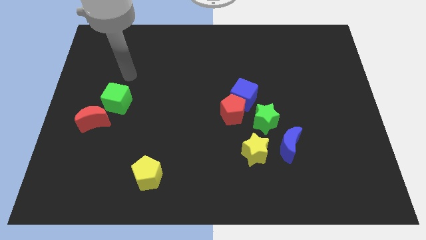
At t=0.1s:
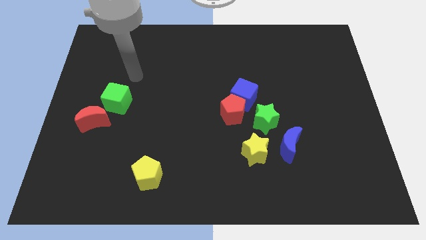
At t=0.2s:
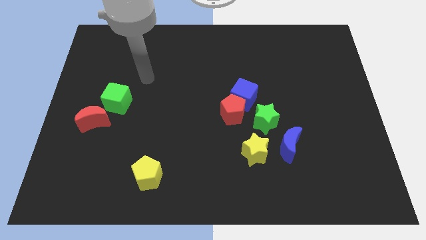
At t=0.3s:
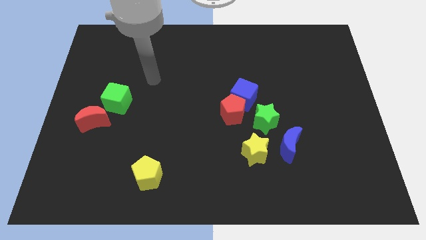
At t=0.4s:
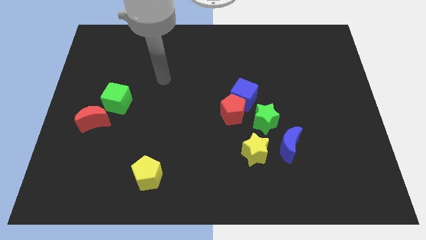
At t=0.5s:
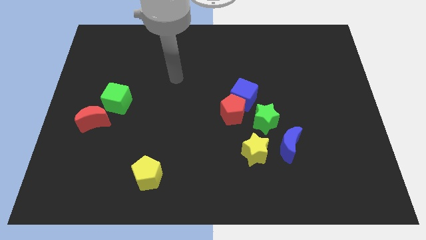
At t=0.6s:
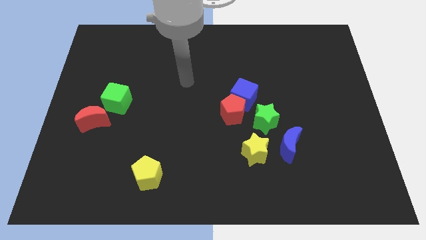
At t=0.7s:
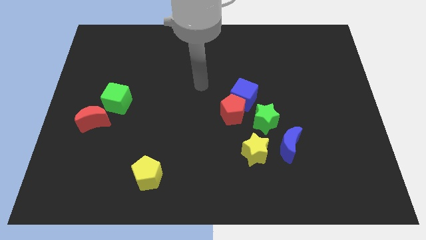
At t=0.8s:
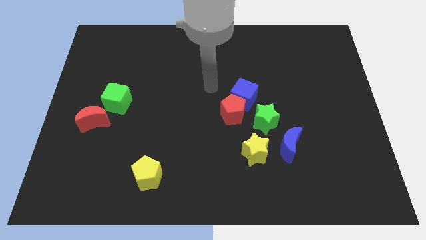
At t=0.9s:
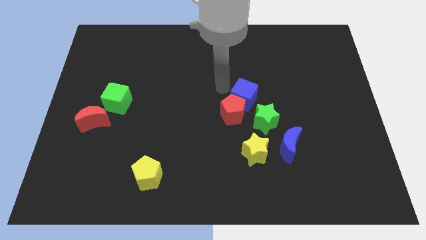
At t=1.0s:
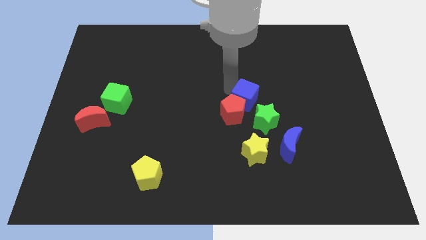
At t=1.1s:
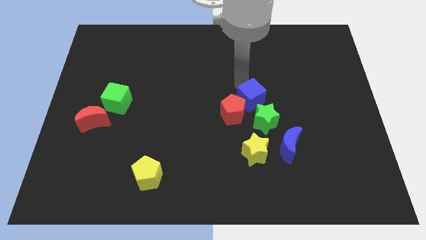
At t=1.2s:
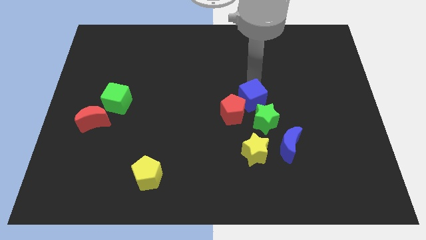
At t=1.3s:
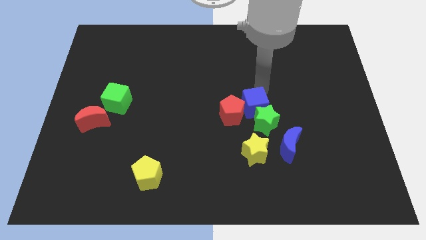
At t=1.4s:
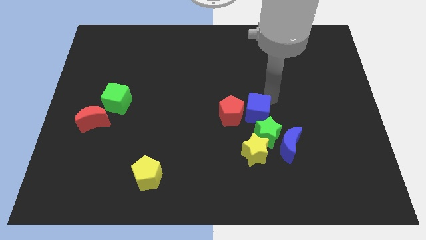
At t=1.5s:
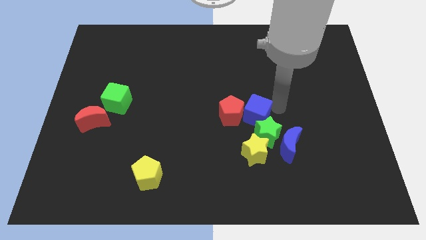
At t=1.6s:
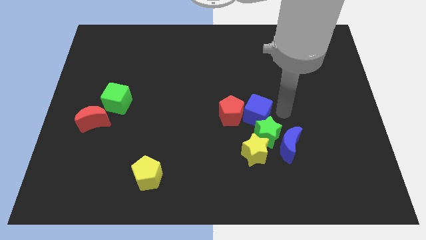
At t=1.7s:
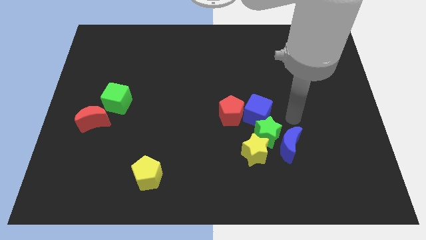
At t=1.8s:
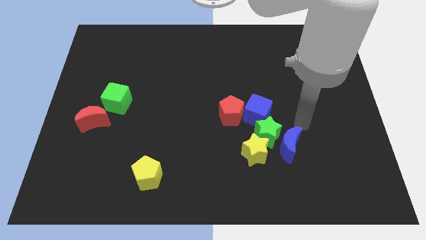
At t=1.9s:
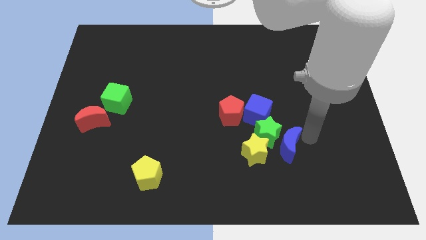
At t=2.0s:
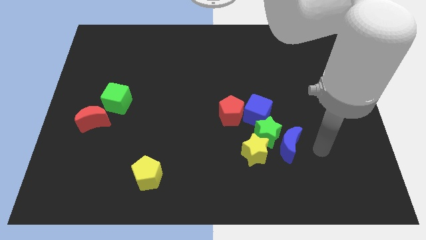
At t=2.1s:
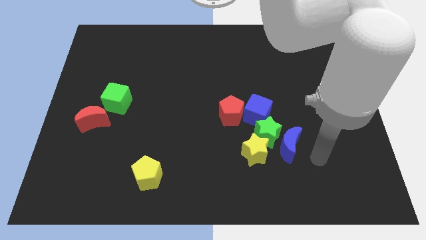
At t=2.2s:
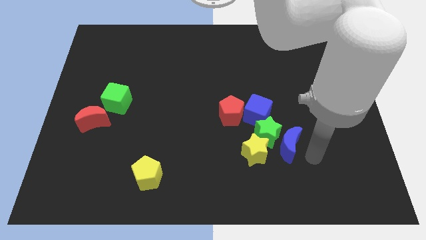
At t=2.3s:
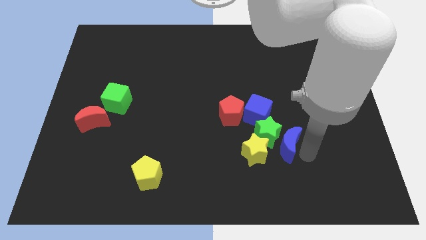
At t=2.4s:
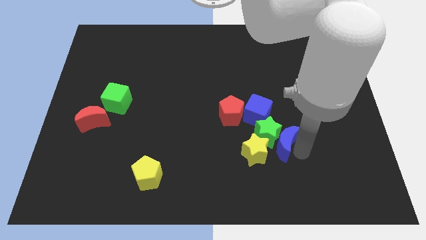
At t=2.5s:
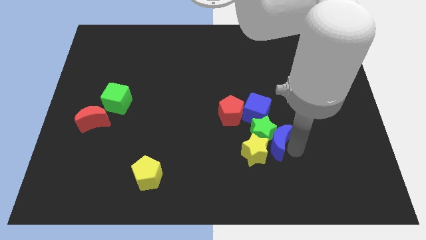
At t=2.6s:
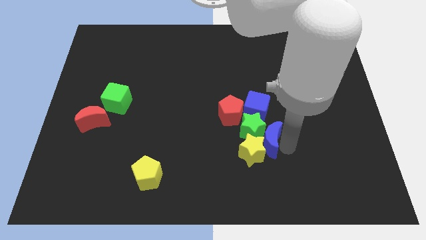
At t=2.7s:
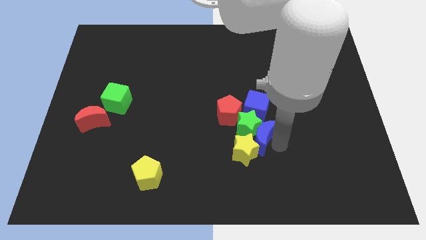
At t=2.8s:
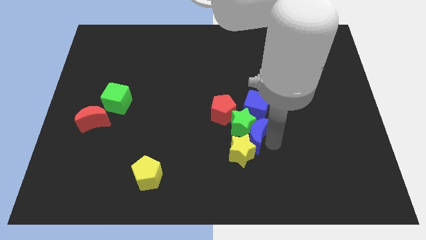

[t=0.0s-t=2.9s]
slightly move the blue moon to the left

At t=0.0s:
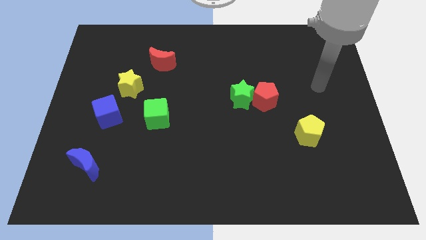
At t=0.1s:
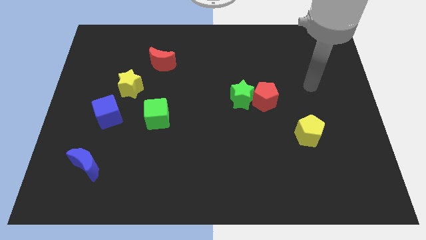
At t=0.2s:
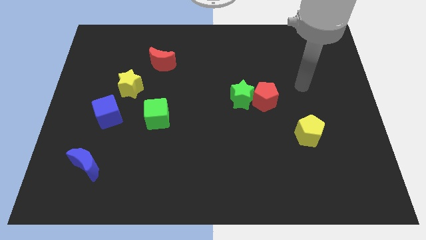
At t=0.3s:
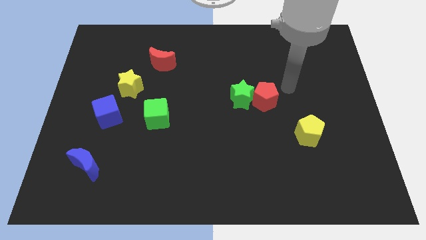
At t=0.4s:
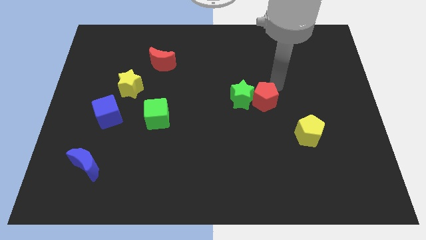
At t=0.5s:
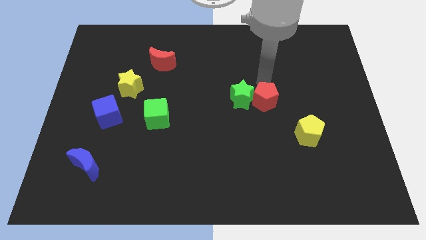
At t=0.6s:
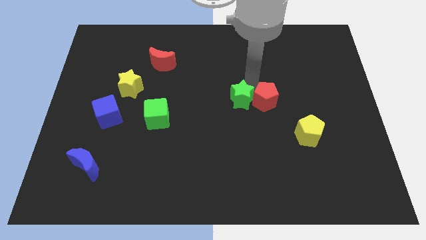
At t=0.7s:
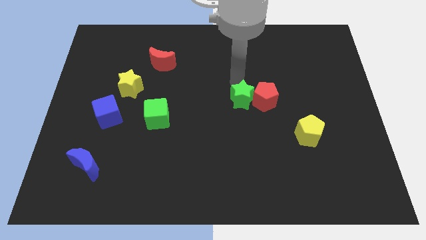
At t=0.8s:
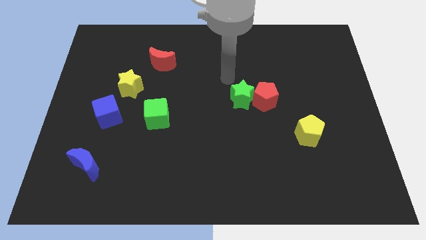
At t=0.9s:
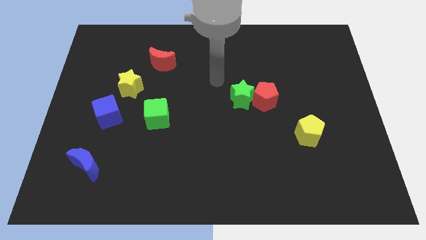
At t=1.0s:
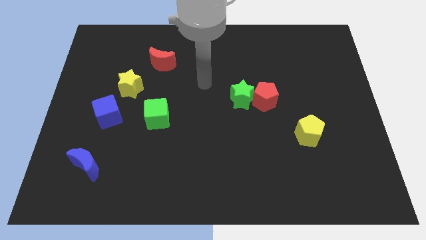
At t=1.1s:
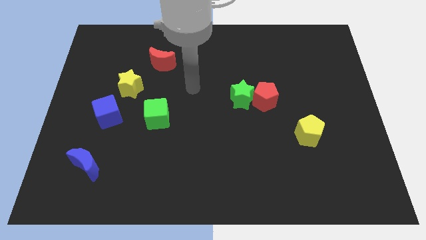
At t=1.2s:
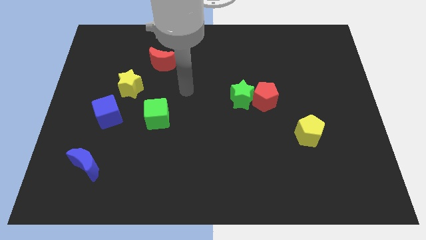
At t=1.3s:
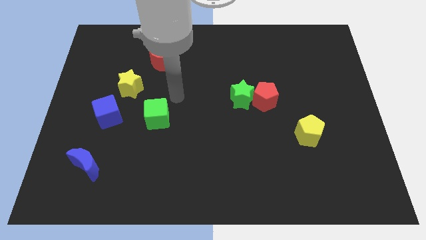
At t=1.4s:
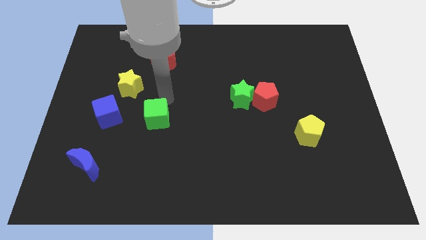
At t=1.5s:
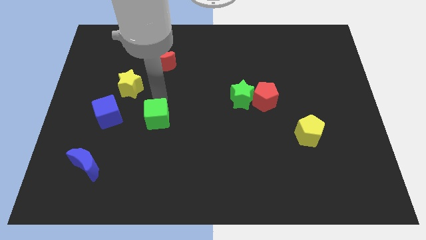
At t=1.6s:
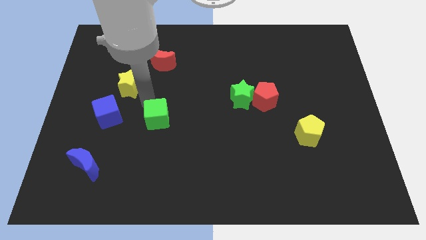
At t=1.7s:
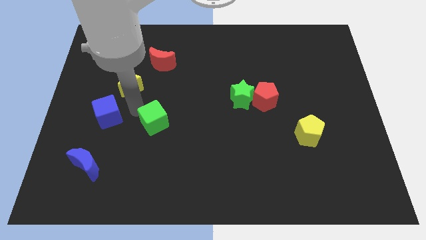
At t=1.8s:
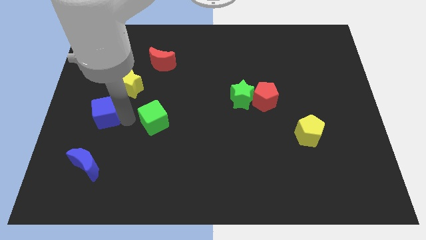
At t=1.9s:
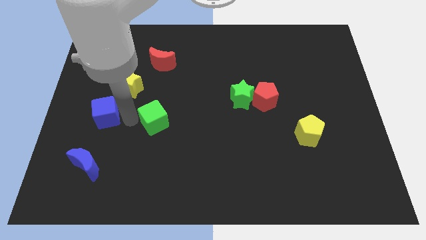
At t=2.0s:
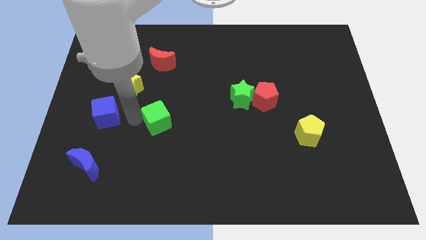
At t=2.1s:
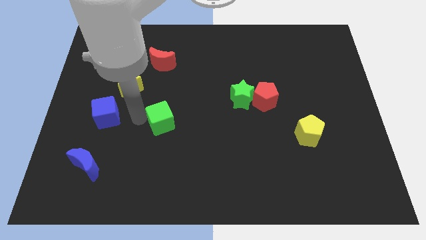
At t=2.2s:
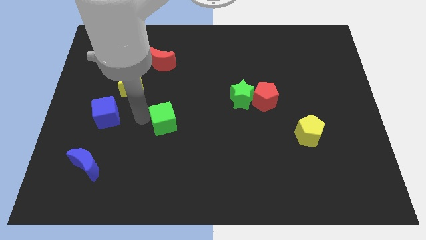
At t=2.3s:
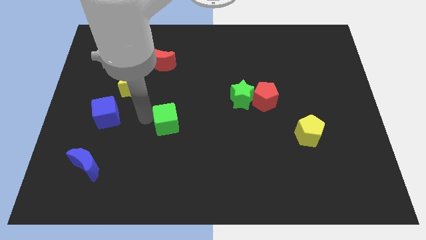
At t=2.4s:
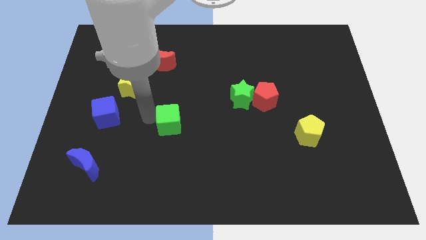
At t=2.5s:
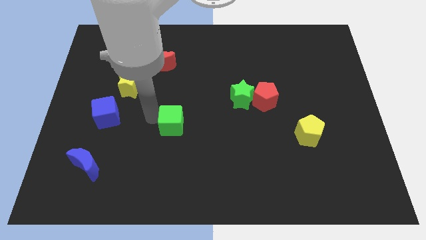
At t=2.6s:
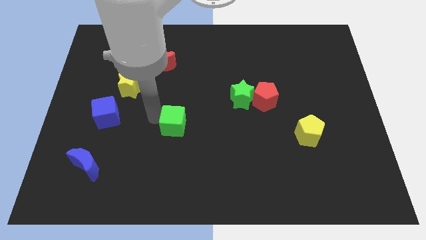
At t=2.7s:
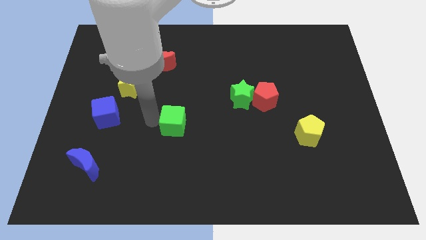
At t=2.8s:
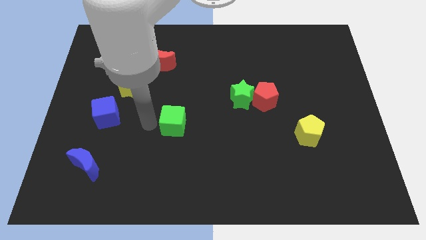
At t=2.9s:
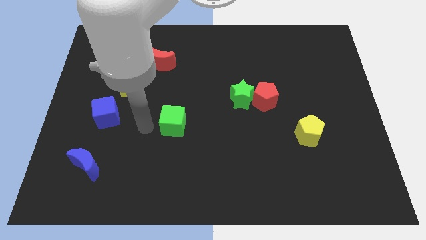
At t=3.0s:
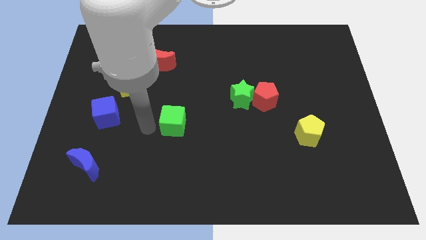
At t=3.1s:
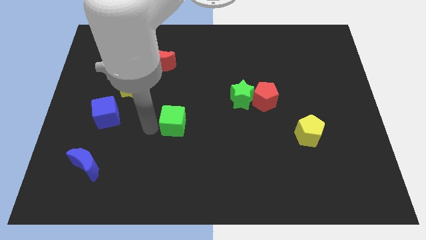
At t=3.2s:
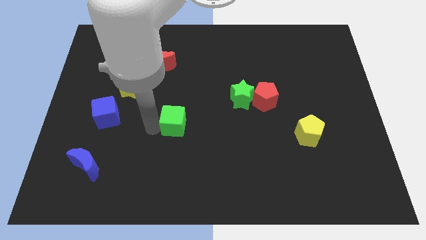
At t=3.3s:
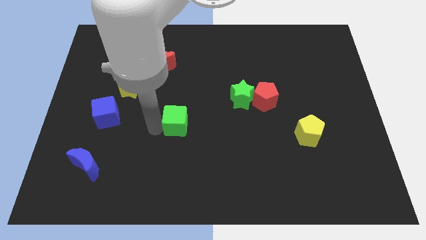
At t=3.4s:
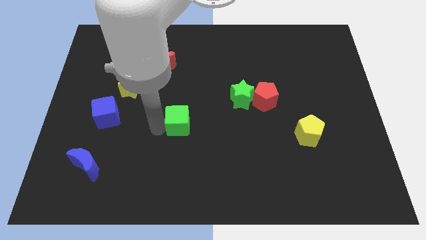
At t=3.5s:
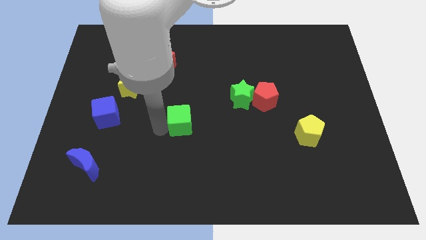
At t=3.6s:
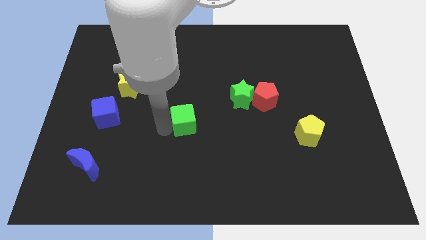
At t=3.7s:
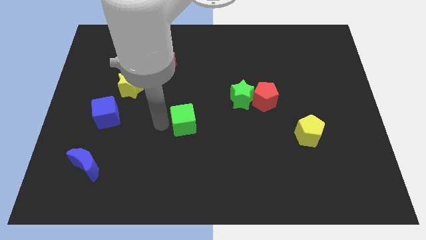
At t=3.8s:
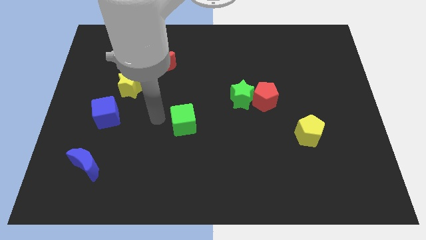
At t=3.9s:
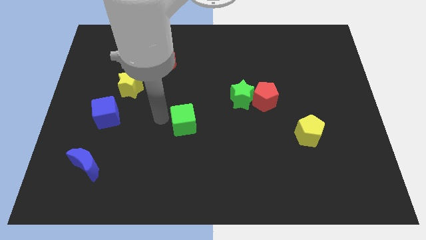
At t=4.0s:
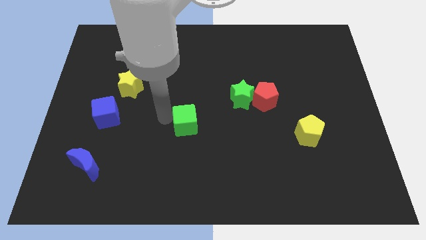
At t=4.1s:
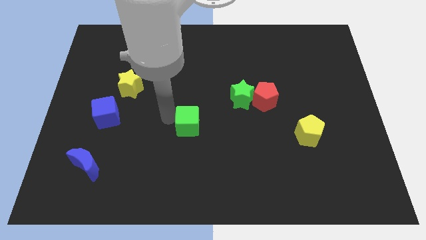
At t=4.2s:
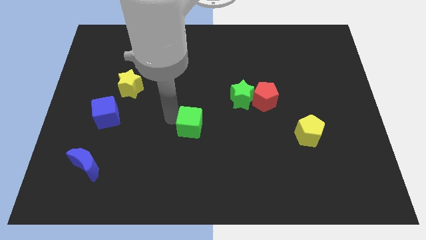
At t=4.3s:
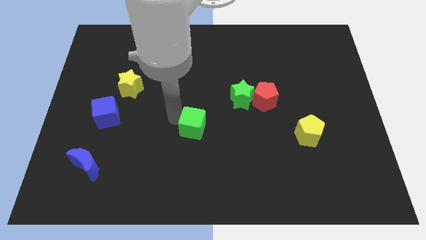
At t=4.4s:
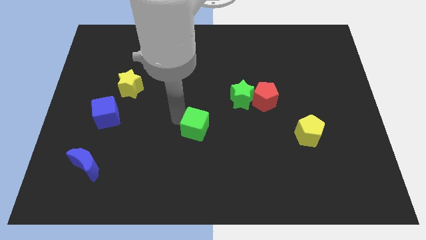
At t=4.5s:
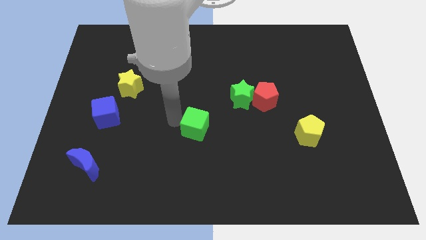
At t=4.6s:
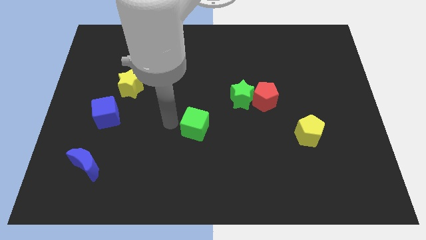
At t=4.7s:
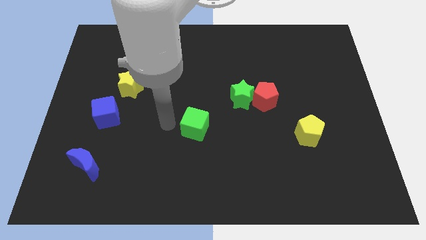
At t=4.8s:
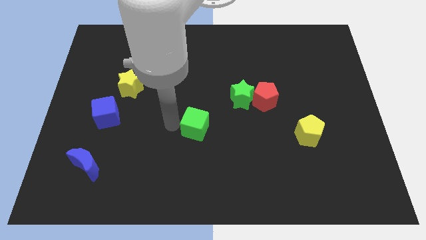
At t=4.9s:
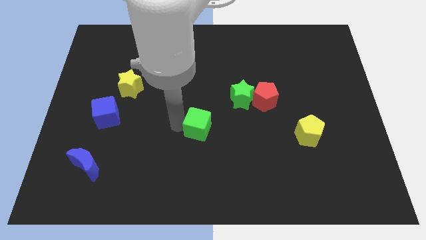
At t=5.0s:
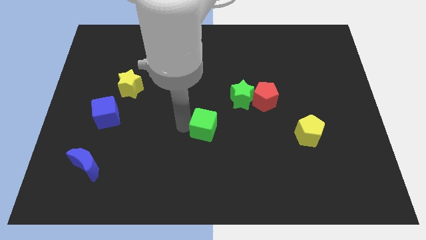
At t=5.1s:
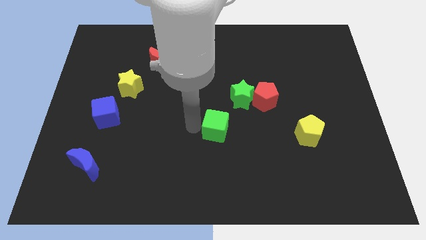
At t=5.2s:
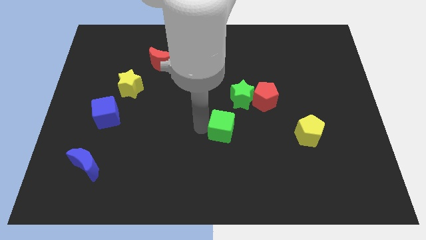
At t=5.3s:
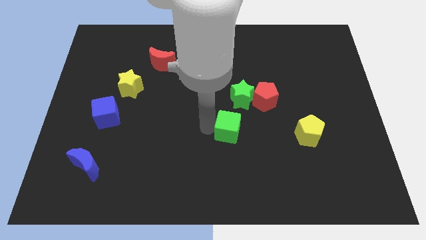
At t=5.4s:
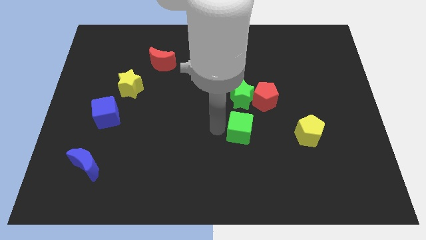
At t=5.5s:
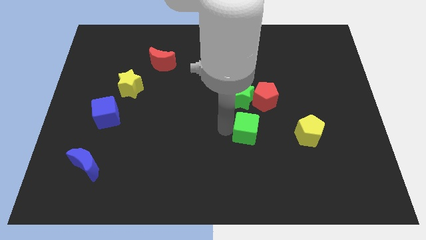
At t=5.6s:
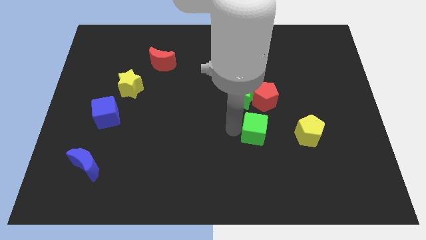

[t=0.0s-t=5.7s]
slide the green cube right
